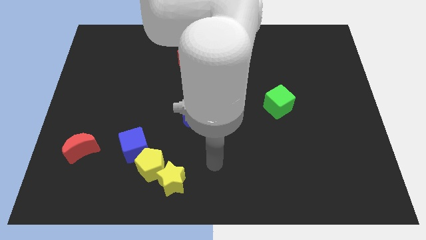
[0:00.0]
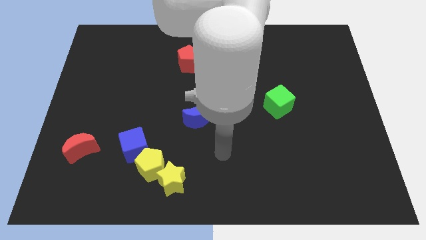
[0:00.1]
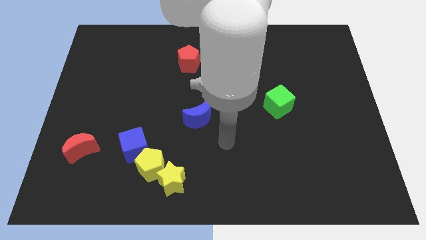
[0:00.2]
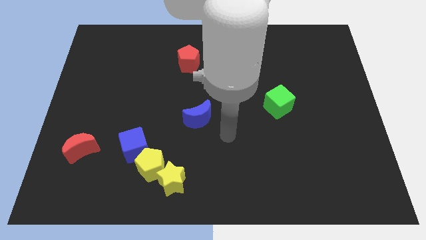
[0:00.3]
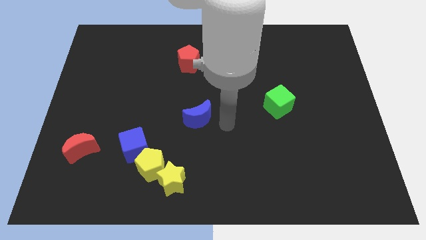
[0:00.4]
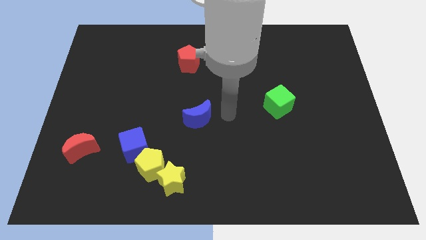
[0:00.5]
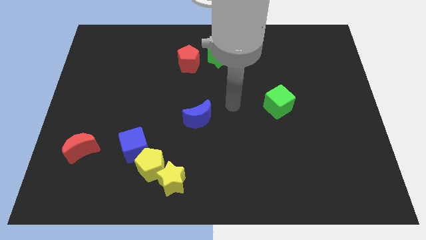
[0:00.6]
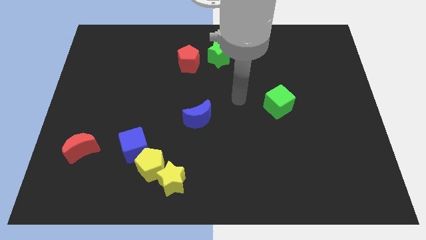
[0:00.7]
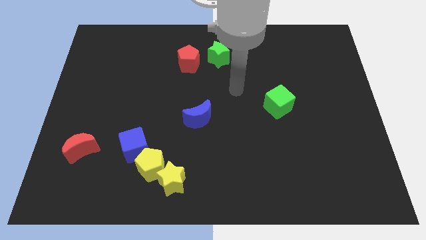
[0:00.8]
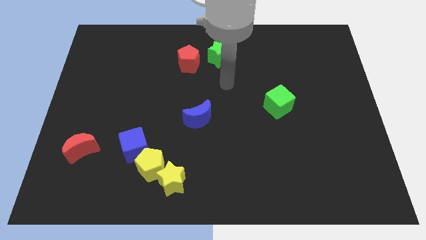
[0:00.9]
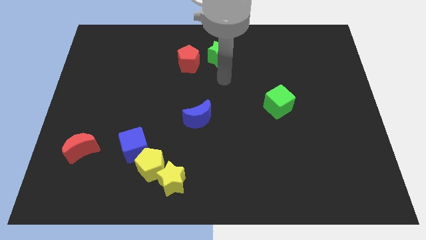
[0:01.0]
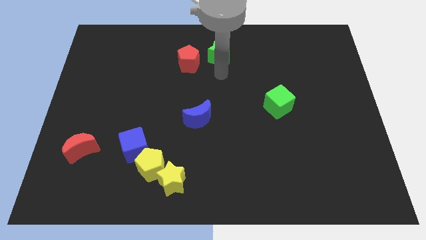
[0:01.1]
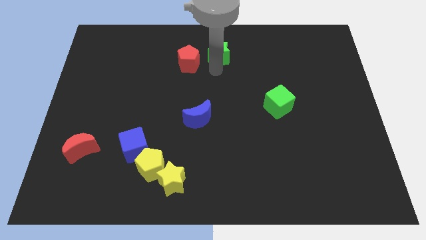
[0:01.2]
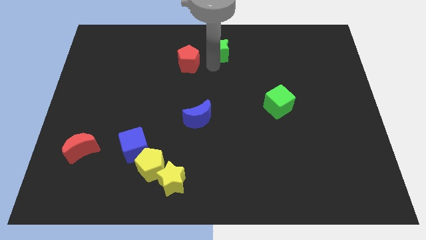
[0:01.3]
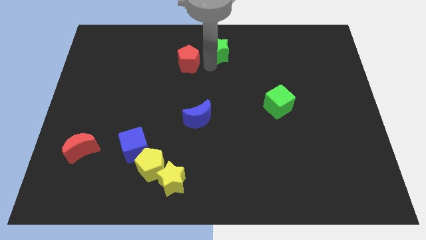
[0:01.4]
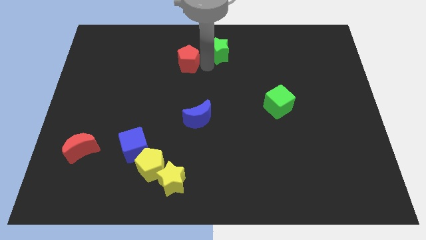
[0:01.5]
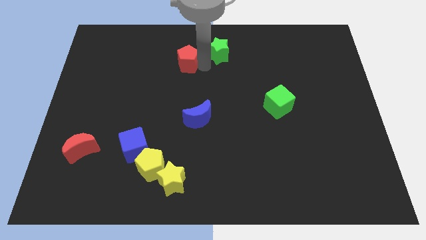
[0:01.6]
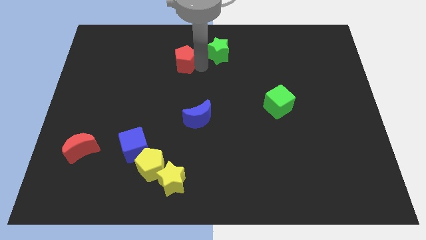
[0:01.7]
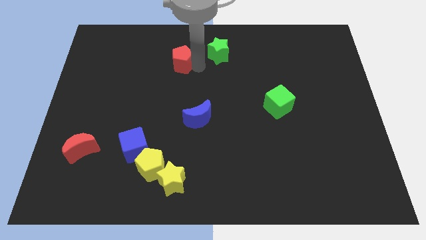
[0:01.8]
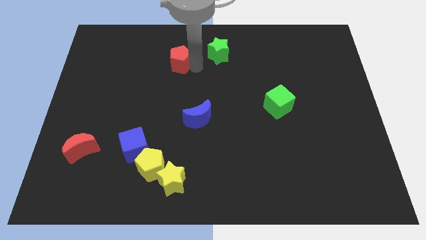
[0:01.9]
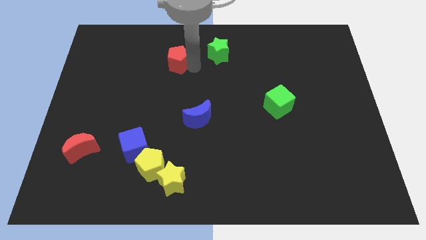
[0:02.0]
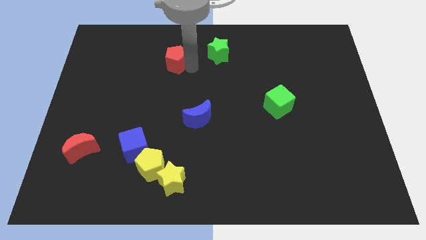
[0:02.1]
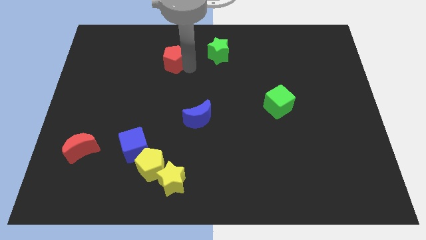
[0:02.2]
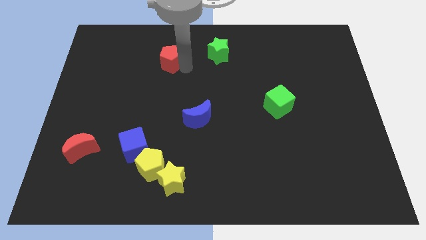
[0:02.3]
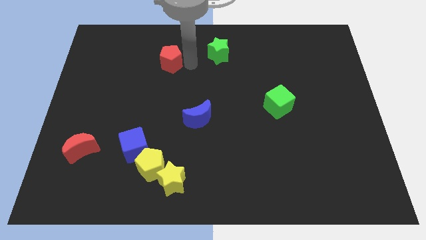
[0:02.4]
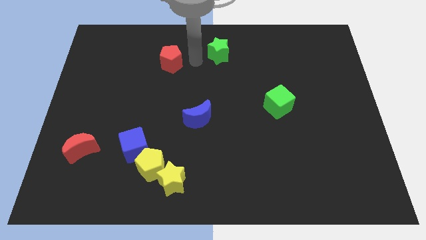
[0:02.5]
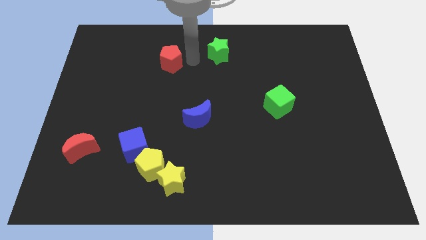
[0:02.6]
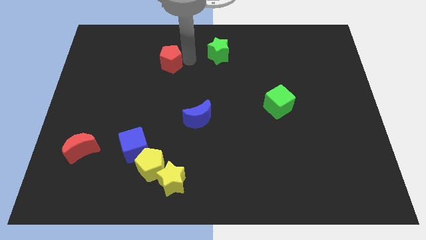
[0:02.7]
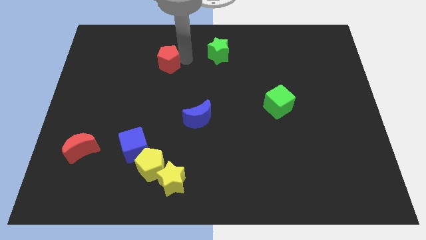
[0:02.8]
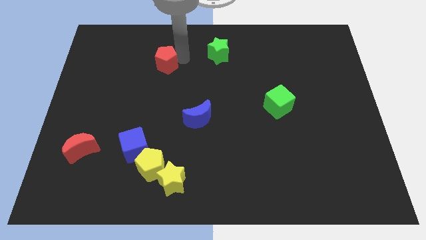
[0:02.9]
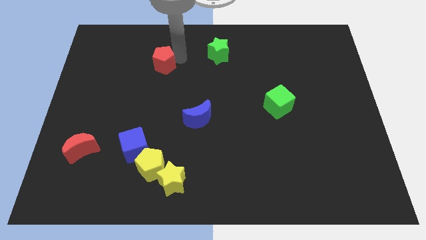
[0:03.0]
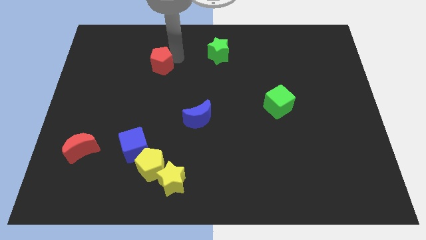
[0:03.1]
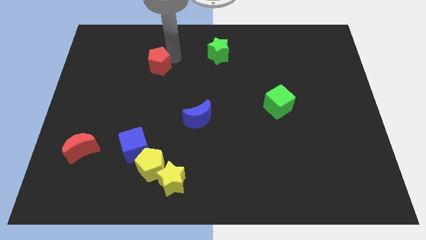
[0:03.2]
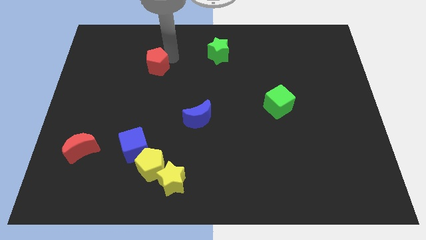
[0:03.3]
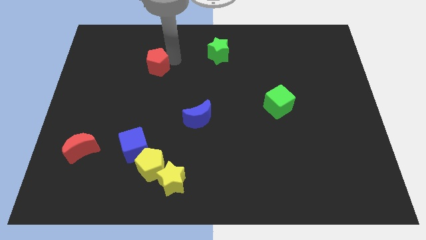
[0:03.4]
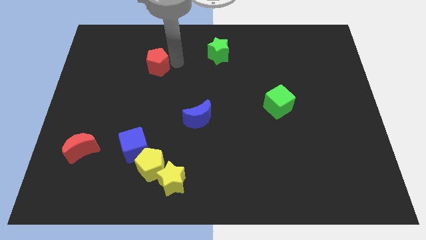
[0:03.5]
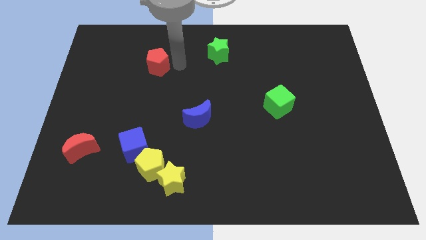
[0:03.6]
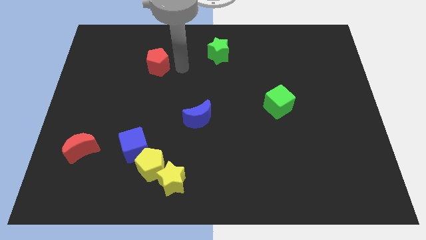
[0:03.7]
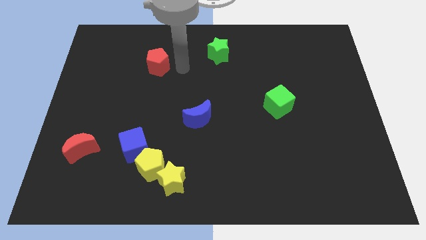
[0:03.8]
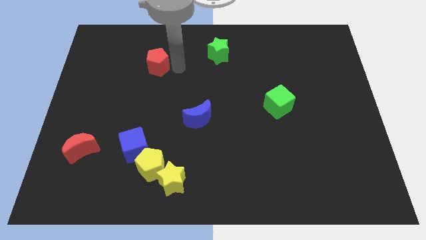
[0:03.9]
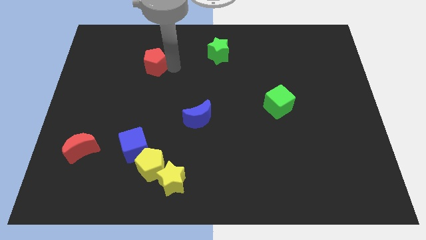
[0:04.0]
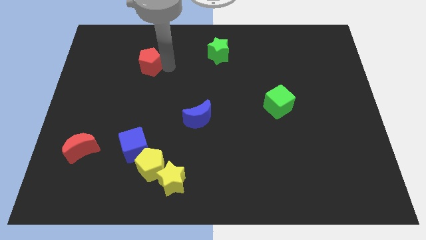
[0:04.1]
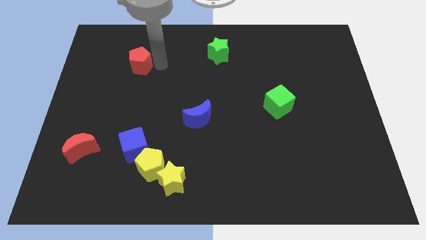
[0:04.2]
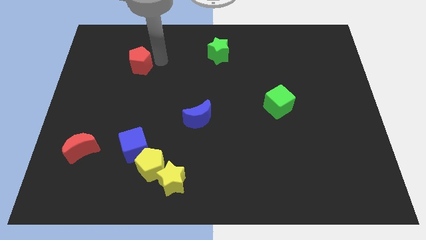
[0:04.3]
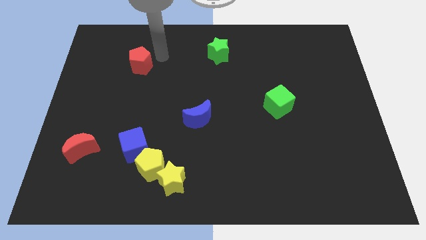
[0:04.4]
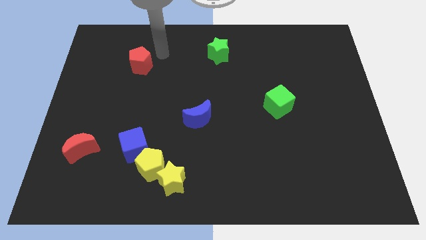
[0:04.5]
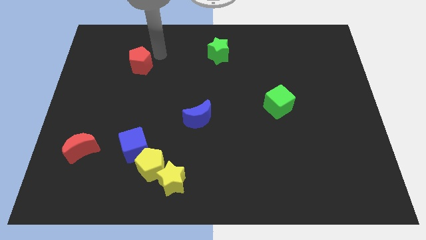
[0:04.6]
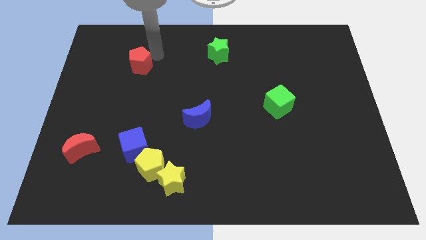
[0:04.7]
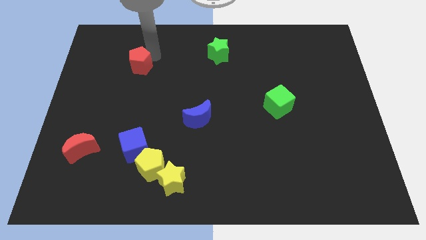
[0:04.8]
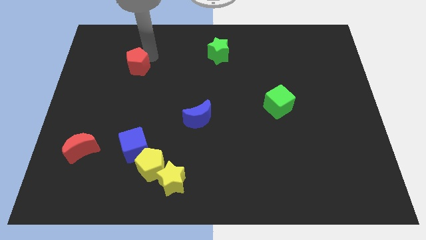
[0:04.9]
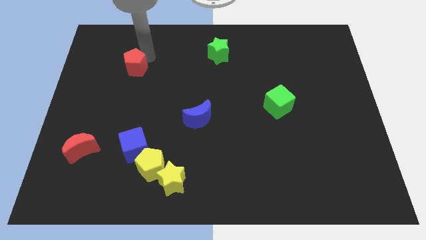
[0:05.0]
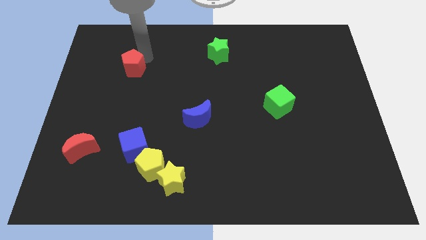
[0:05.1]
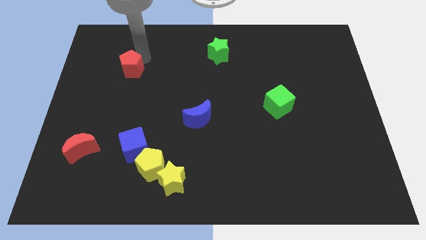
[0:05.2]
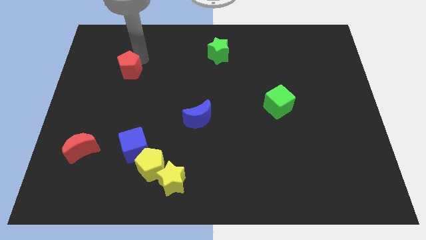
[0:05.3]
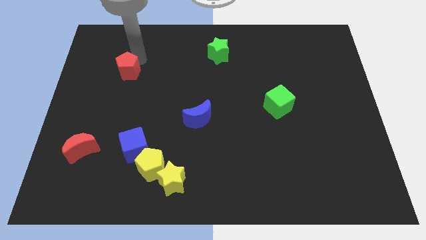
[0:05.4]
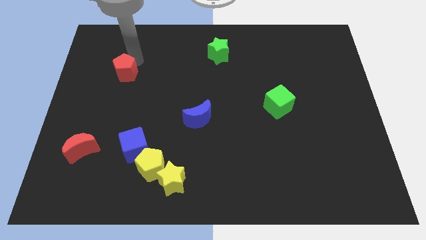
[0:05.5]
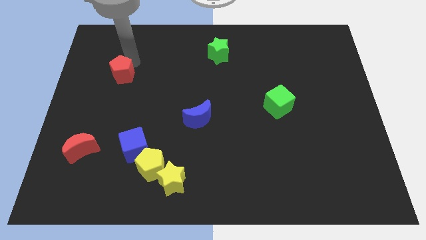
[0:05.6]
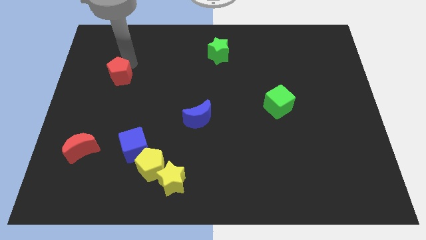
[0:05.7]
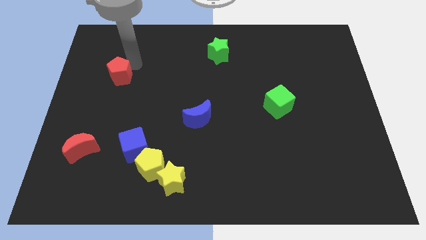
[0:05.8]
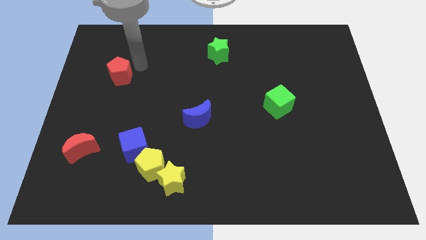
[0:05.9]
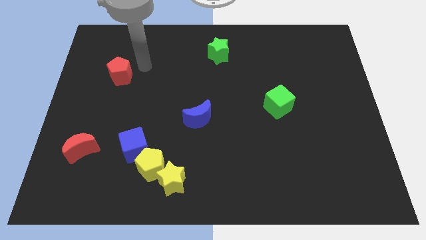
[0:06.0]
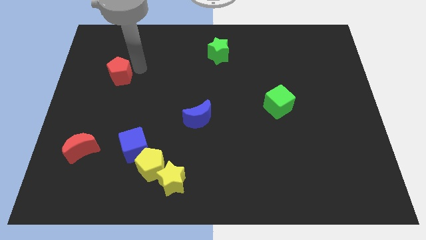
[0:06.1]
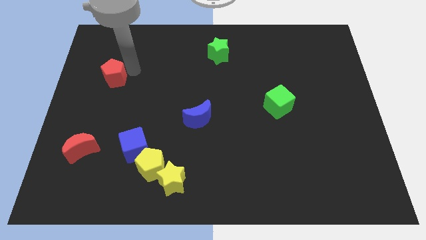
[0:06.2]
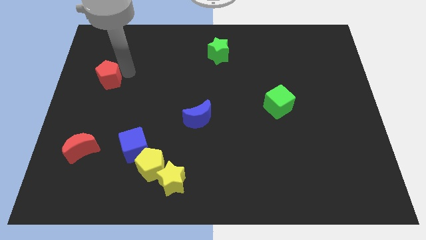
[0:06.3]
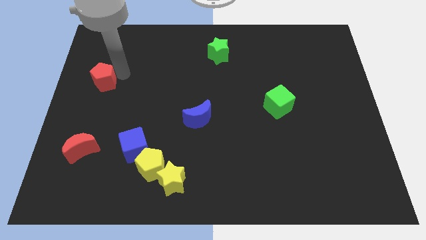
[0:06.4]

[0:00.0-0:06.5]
push the red pentagon to the left side
